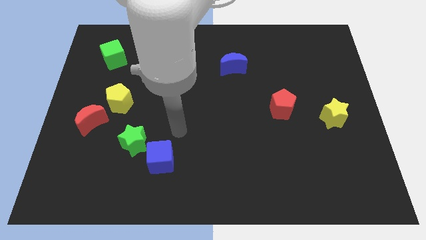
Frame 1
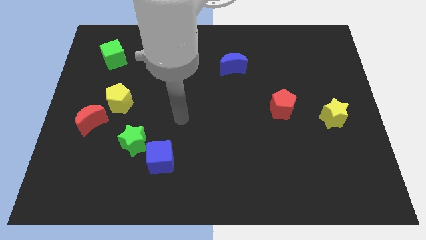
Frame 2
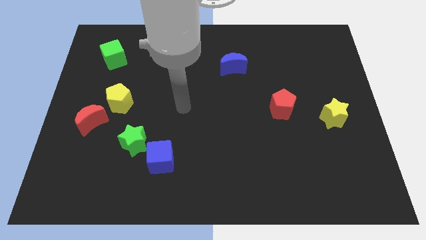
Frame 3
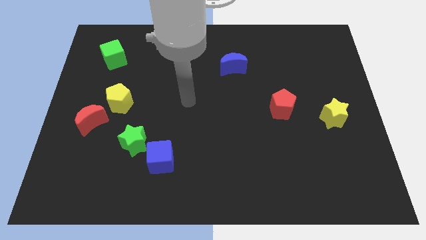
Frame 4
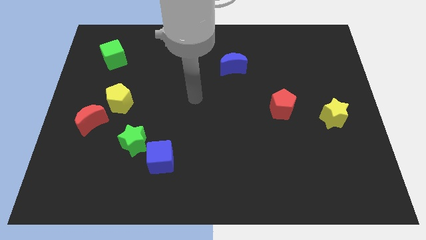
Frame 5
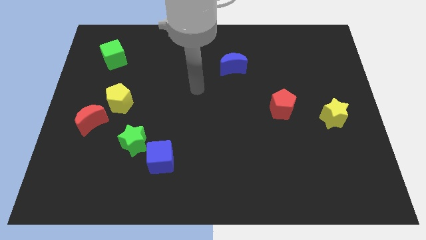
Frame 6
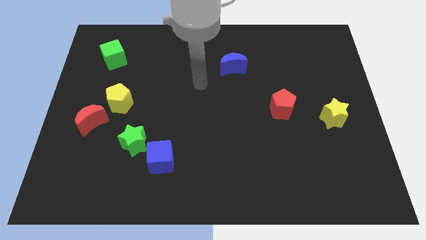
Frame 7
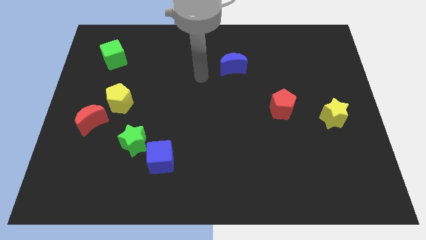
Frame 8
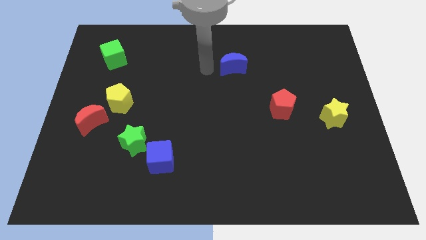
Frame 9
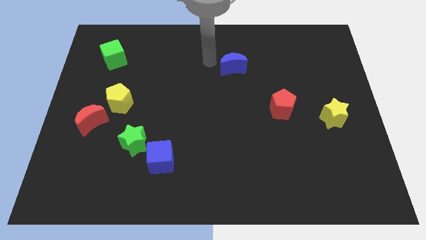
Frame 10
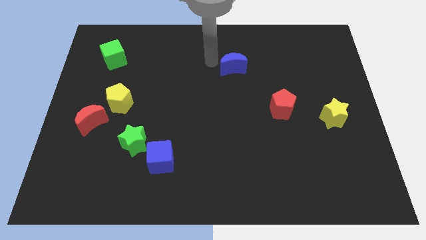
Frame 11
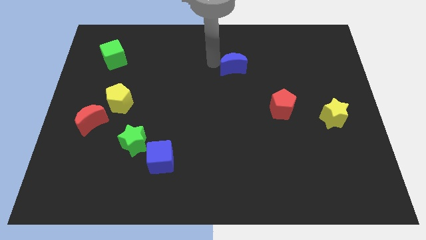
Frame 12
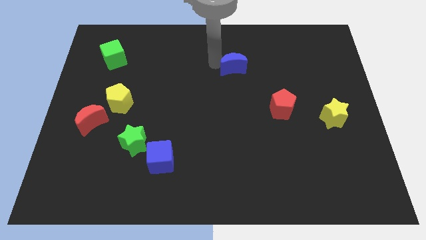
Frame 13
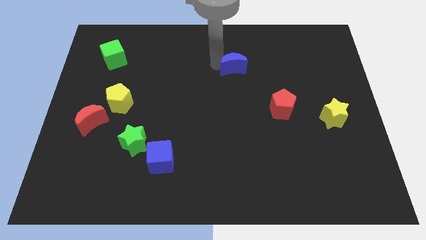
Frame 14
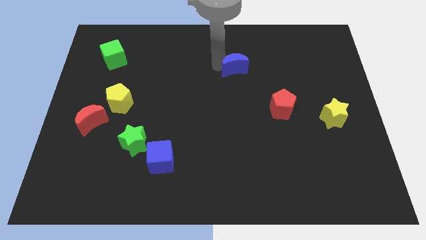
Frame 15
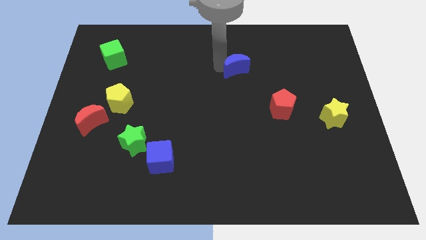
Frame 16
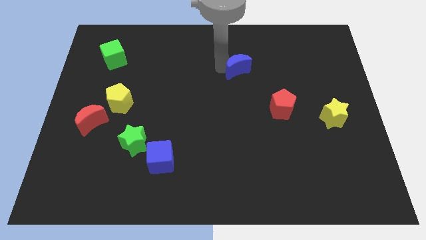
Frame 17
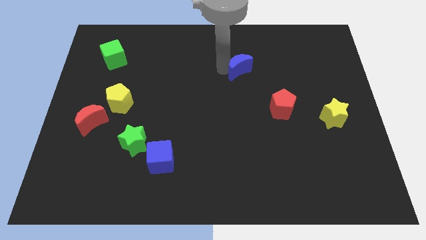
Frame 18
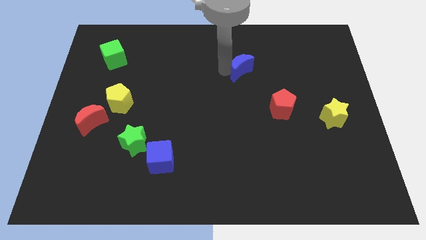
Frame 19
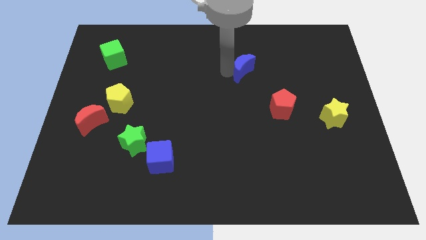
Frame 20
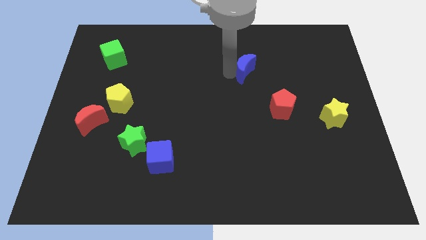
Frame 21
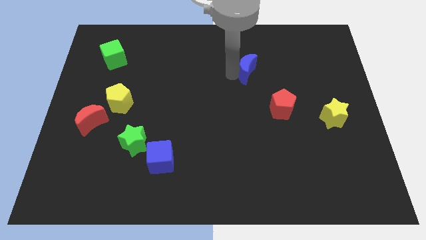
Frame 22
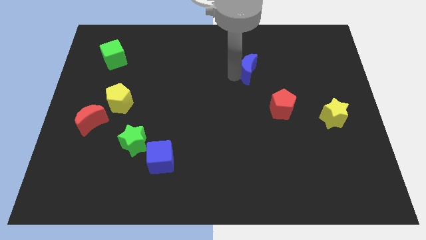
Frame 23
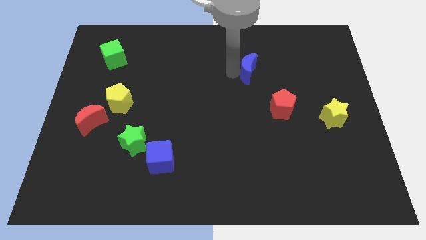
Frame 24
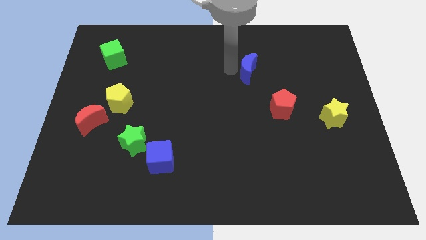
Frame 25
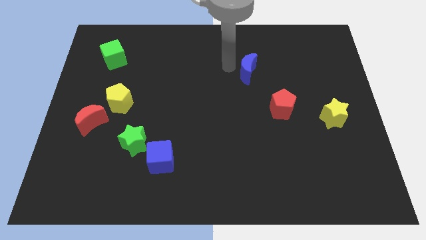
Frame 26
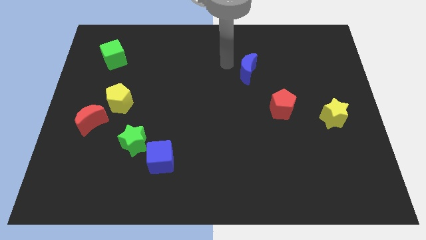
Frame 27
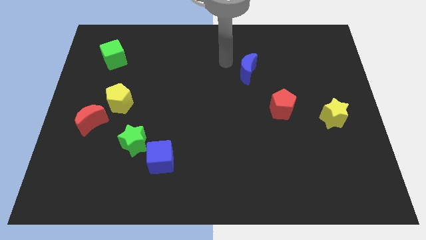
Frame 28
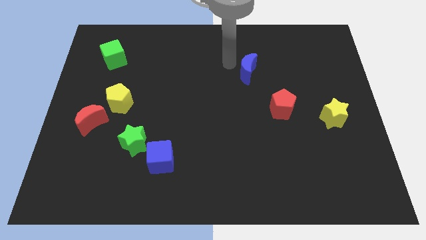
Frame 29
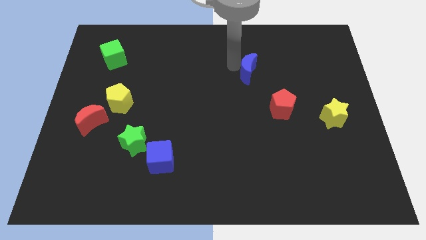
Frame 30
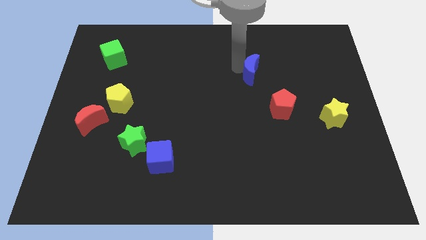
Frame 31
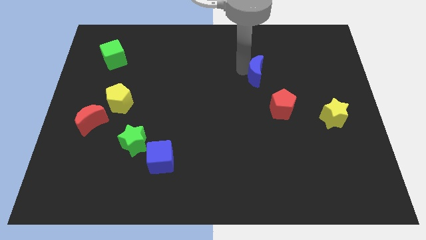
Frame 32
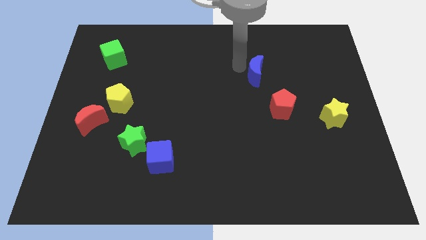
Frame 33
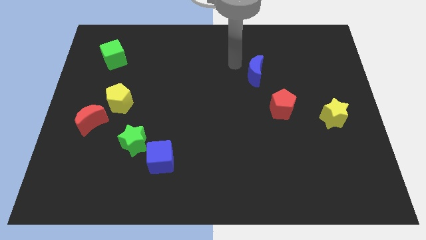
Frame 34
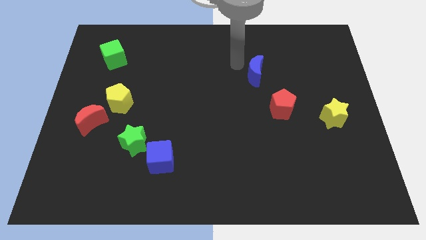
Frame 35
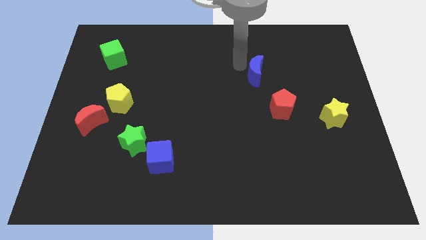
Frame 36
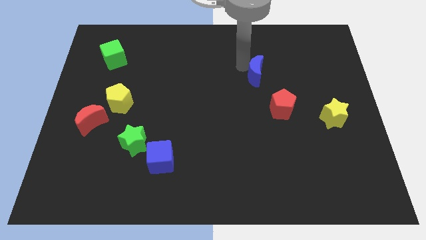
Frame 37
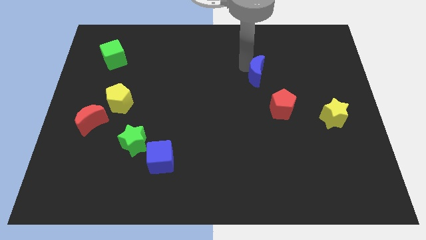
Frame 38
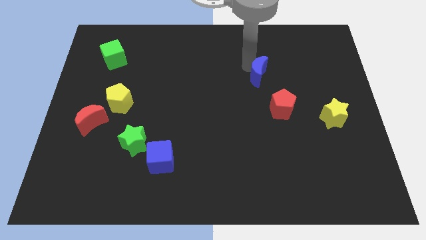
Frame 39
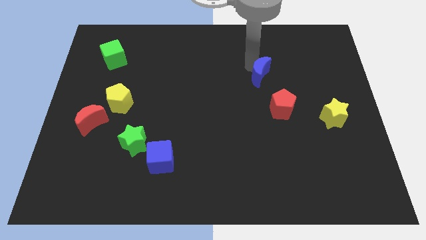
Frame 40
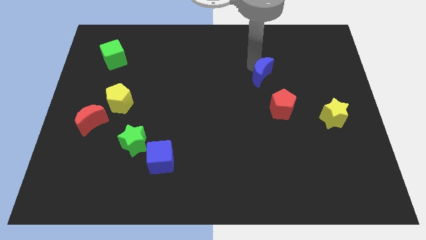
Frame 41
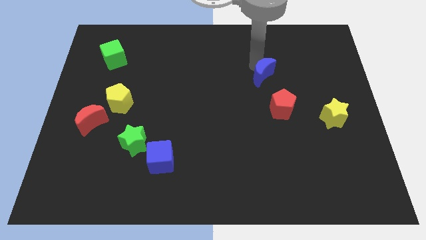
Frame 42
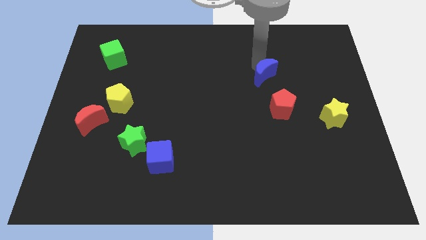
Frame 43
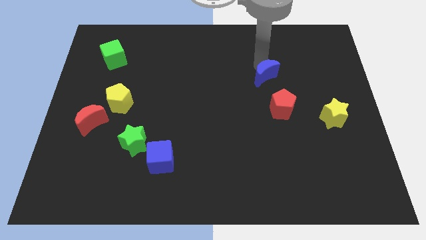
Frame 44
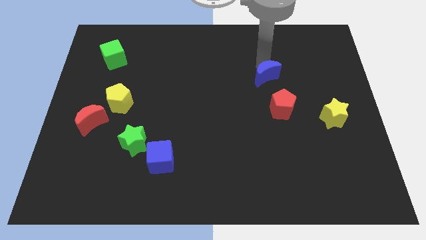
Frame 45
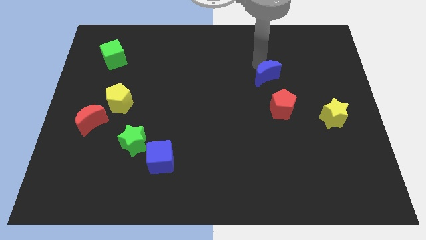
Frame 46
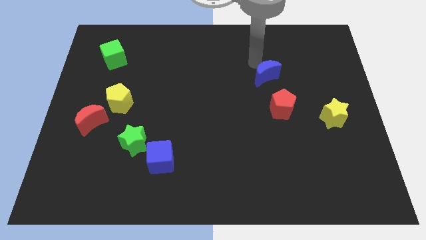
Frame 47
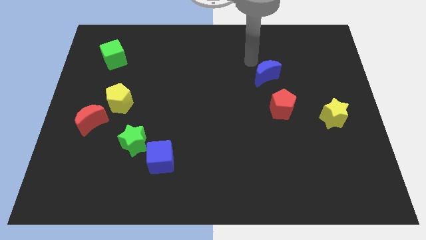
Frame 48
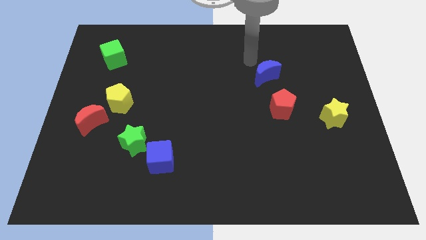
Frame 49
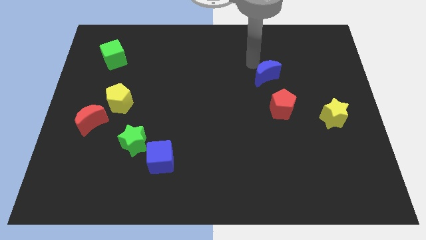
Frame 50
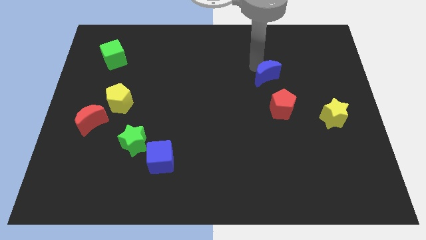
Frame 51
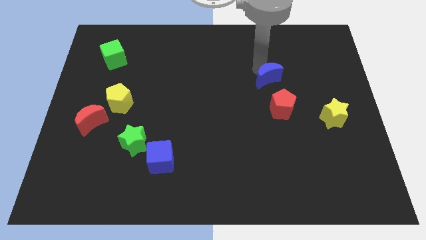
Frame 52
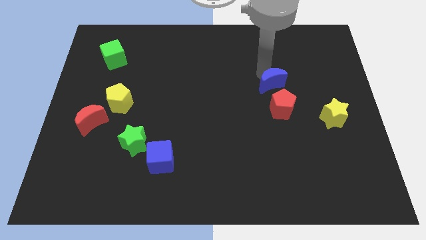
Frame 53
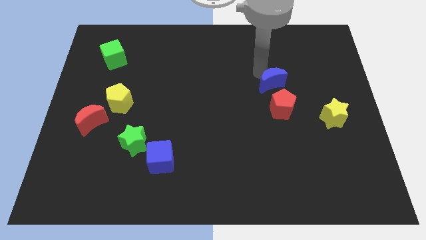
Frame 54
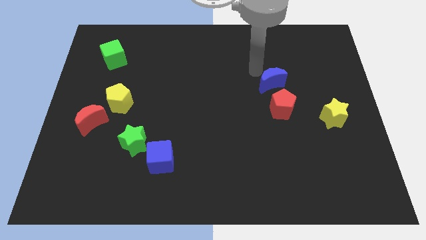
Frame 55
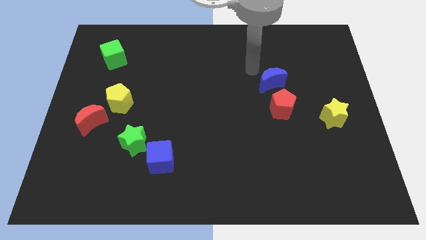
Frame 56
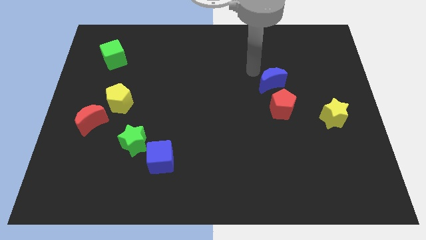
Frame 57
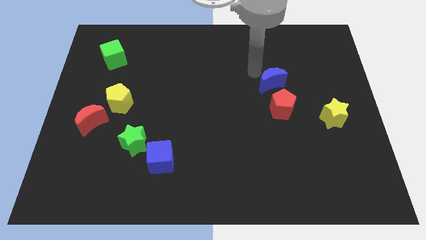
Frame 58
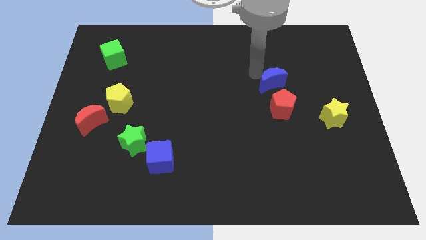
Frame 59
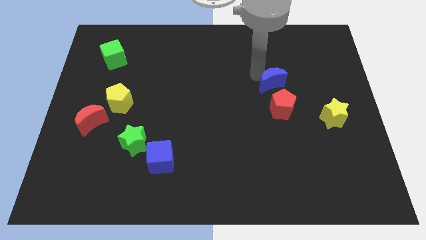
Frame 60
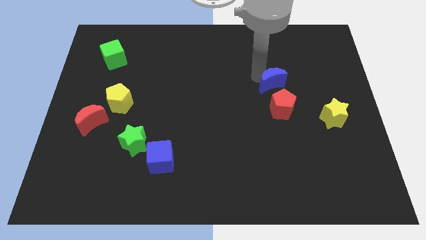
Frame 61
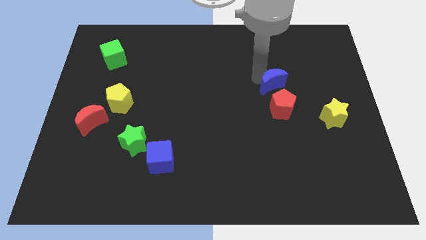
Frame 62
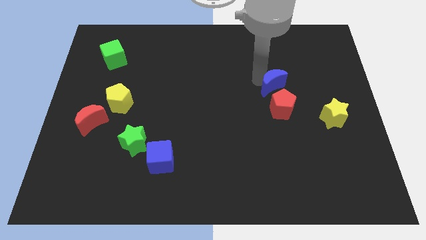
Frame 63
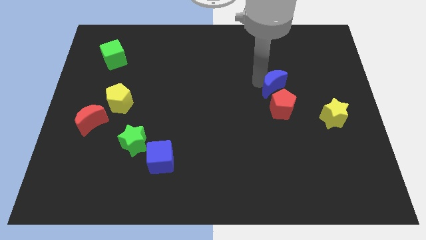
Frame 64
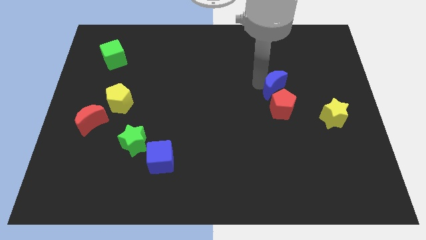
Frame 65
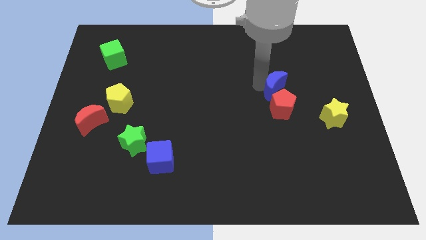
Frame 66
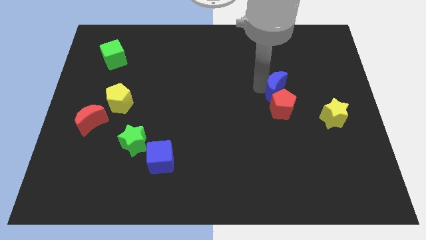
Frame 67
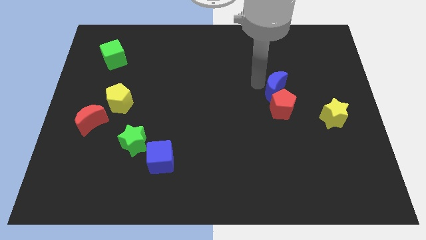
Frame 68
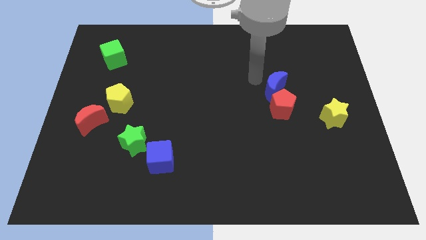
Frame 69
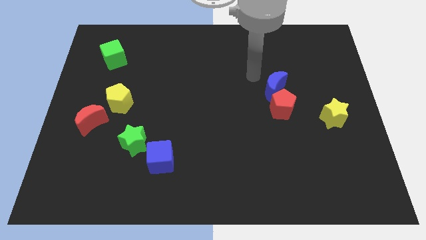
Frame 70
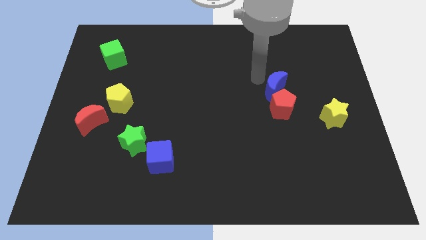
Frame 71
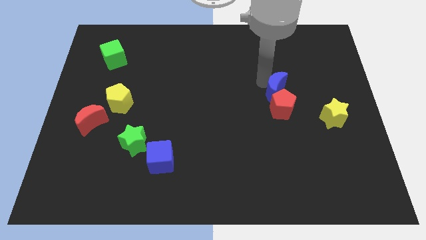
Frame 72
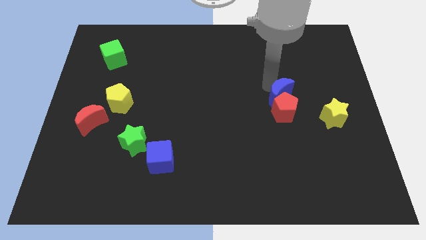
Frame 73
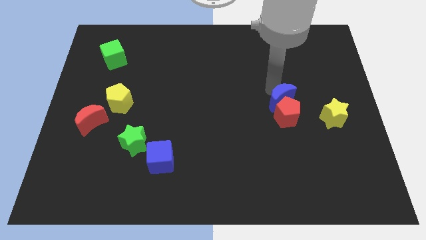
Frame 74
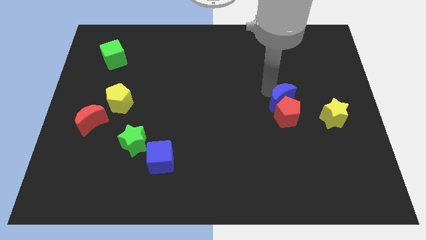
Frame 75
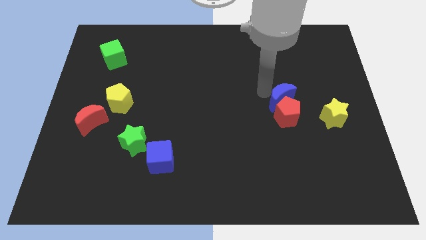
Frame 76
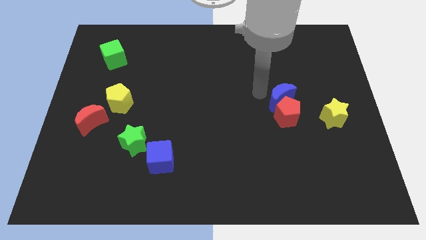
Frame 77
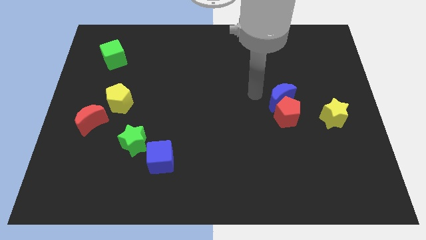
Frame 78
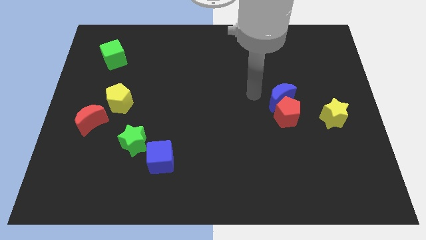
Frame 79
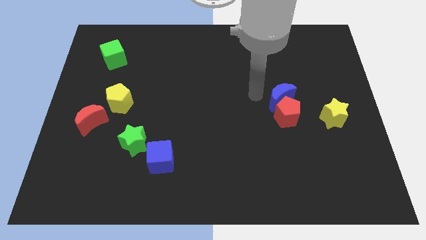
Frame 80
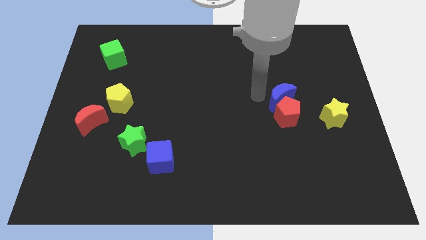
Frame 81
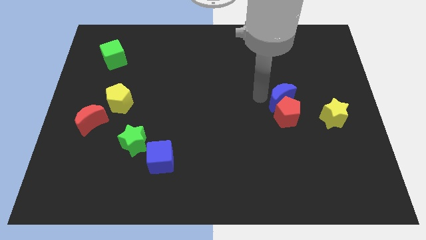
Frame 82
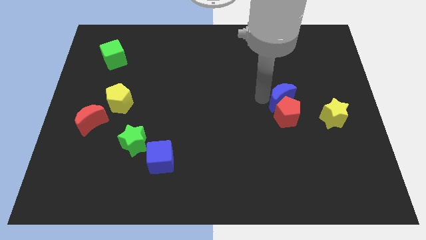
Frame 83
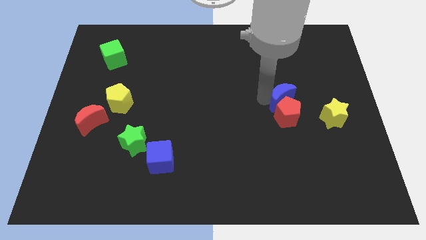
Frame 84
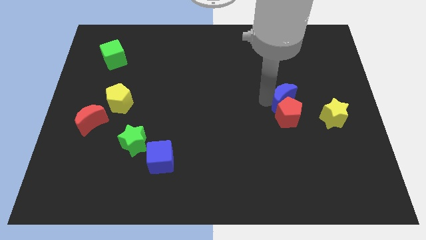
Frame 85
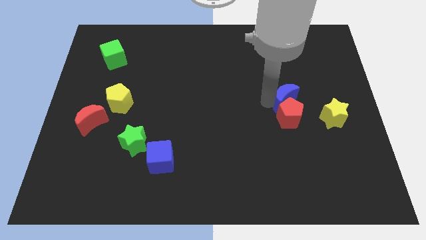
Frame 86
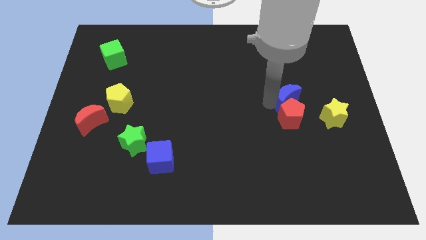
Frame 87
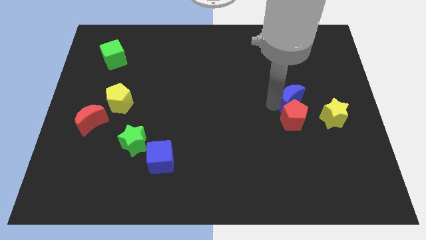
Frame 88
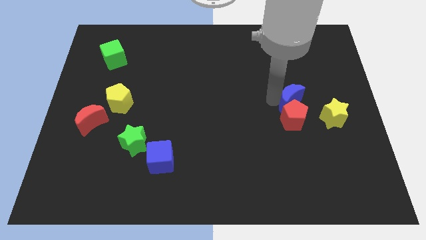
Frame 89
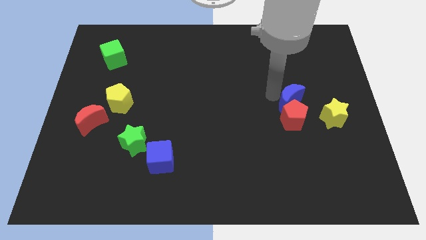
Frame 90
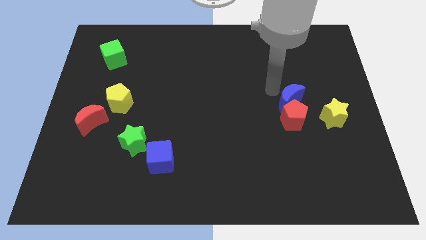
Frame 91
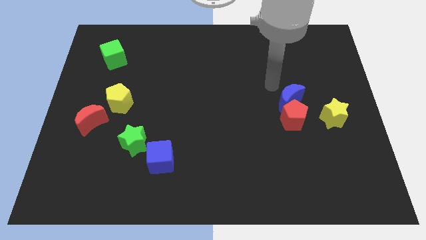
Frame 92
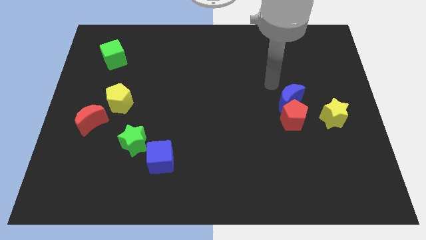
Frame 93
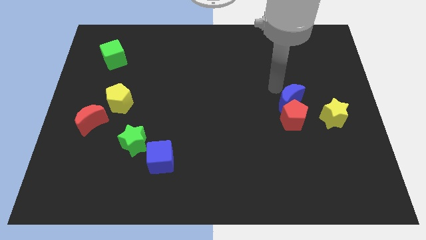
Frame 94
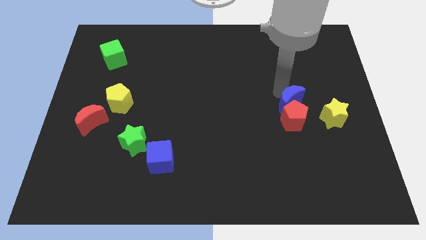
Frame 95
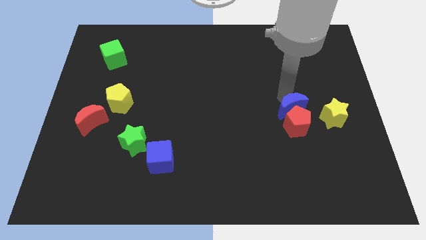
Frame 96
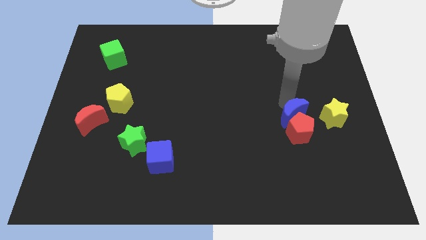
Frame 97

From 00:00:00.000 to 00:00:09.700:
push the blue moon downwards and to the right diagonally
